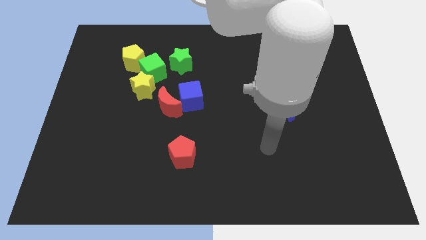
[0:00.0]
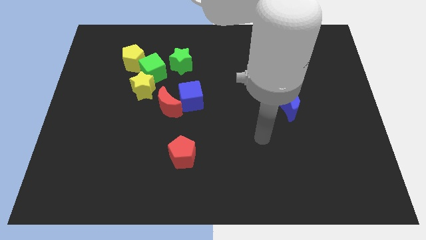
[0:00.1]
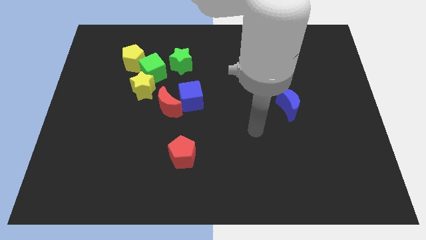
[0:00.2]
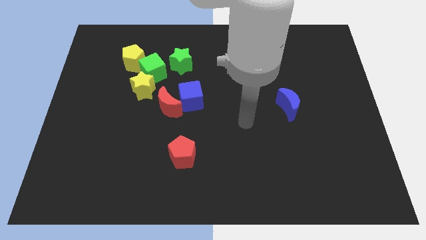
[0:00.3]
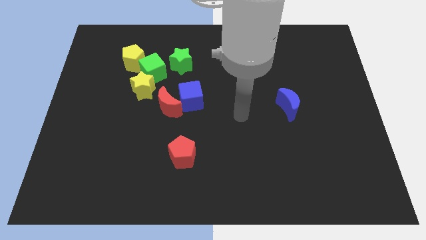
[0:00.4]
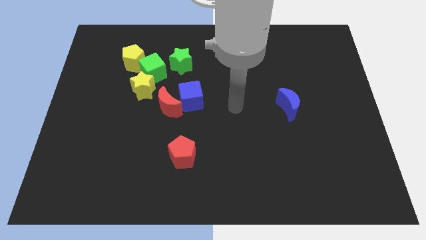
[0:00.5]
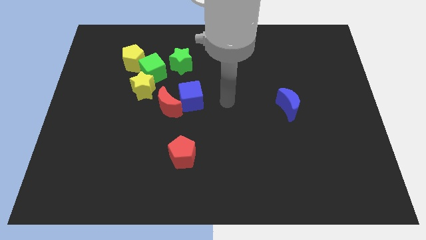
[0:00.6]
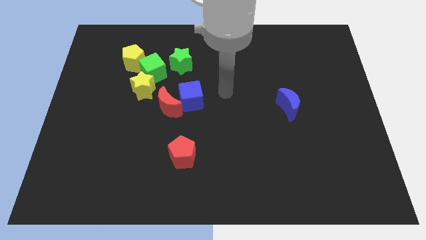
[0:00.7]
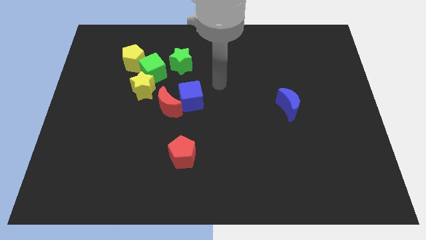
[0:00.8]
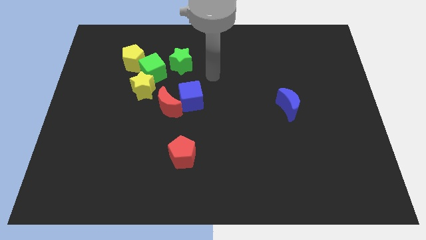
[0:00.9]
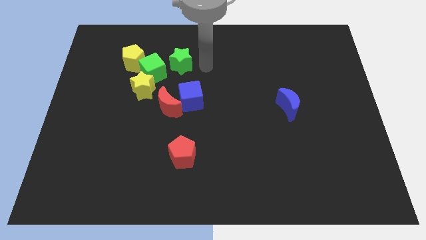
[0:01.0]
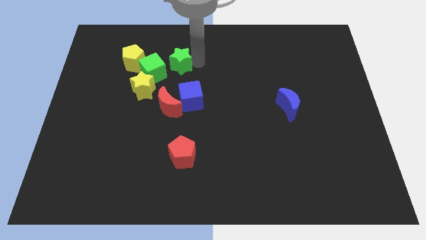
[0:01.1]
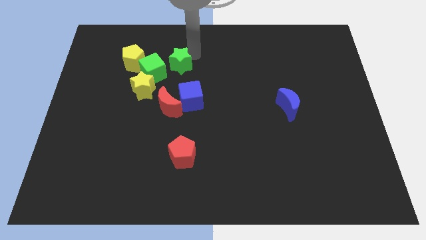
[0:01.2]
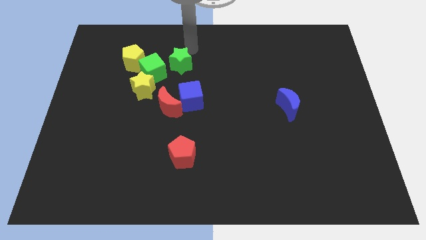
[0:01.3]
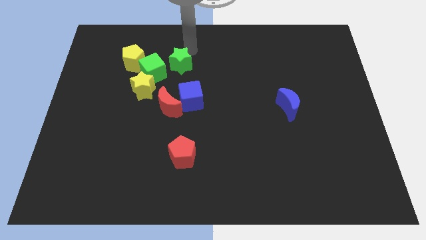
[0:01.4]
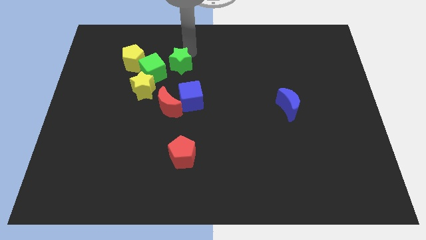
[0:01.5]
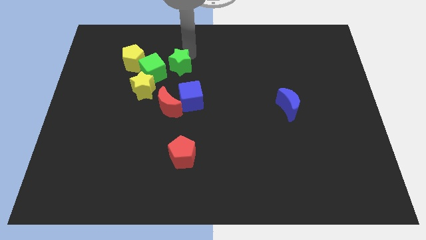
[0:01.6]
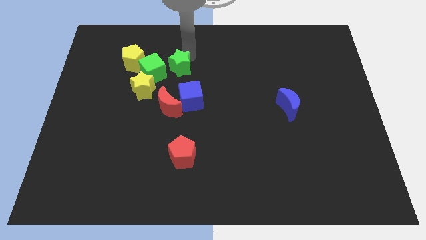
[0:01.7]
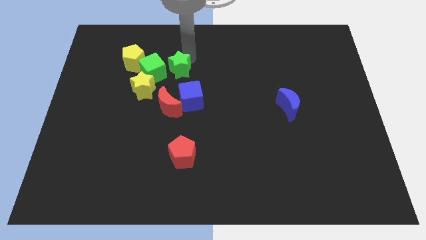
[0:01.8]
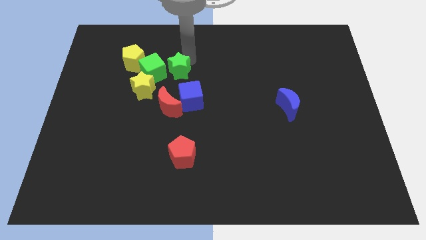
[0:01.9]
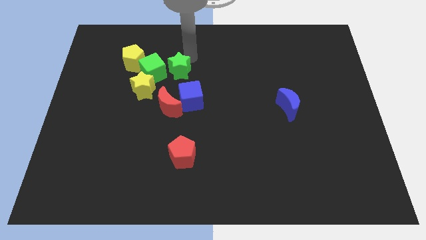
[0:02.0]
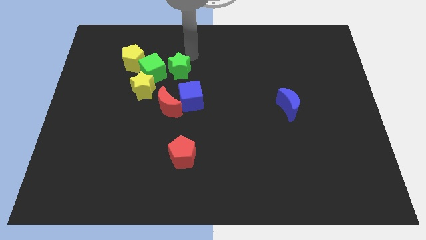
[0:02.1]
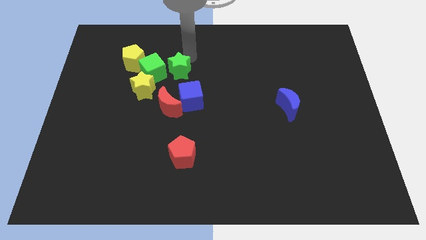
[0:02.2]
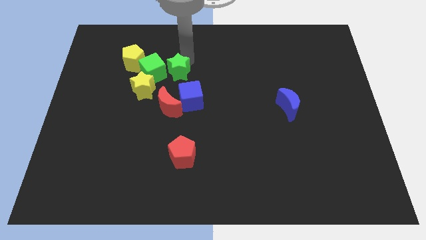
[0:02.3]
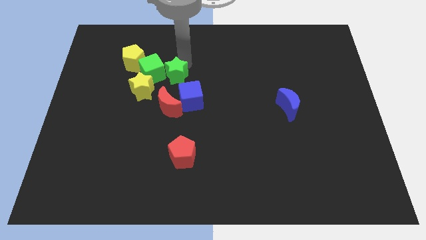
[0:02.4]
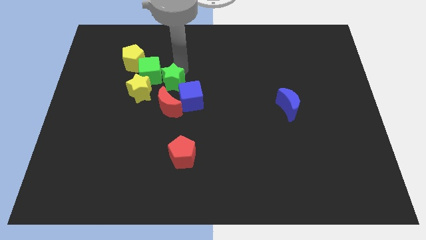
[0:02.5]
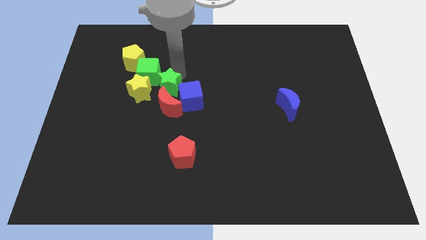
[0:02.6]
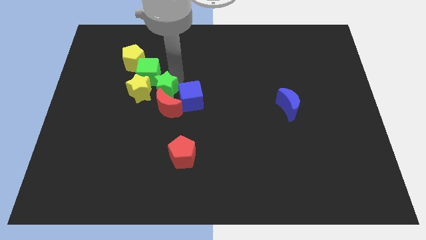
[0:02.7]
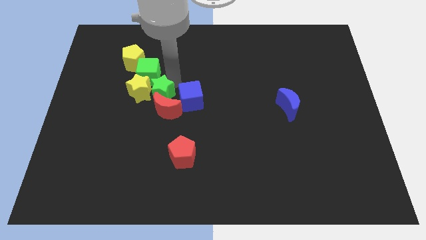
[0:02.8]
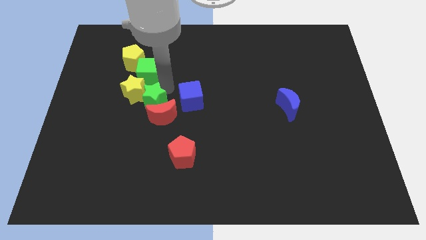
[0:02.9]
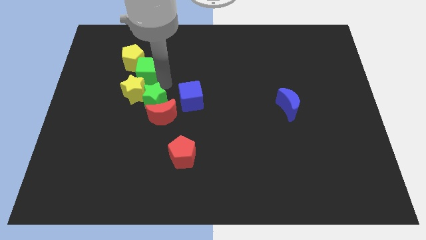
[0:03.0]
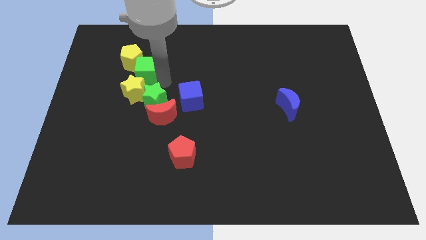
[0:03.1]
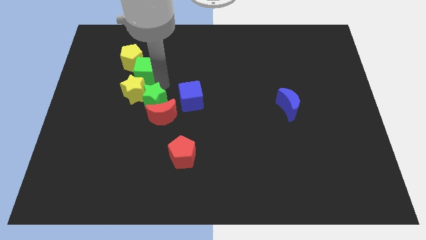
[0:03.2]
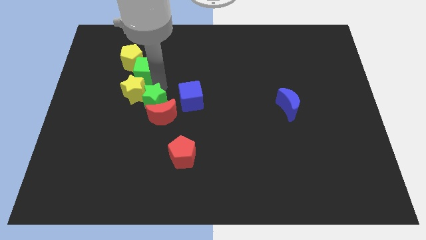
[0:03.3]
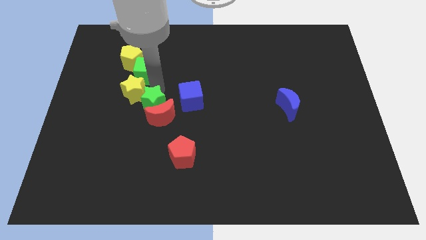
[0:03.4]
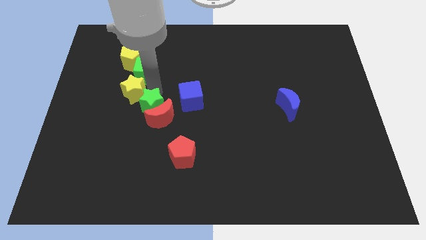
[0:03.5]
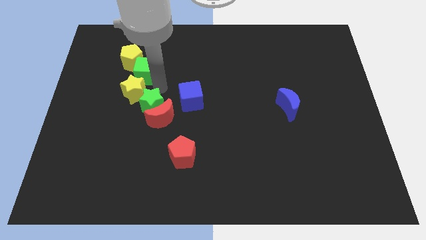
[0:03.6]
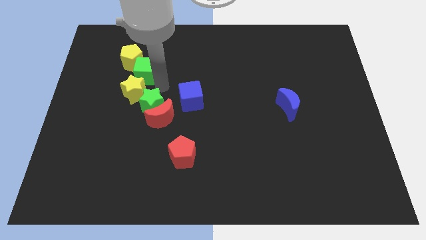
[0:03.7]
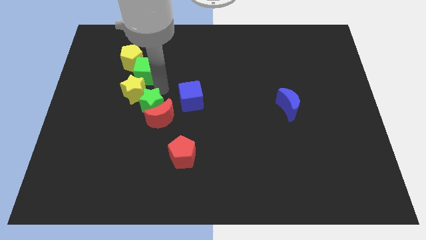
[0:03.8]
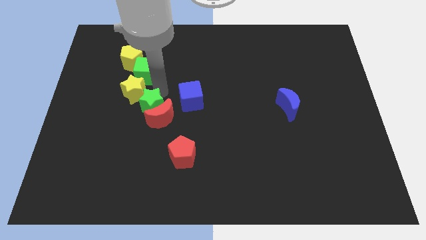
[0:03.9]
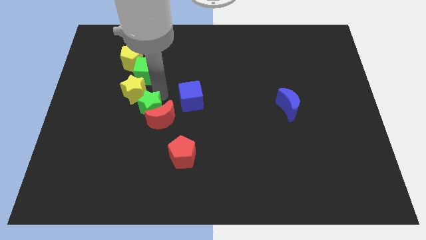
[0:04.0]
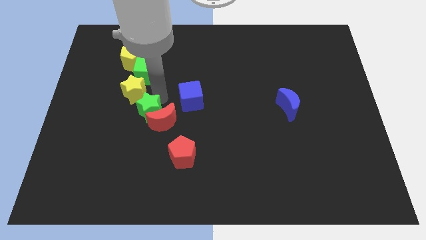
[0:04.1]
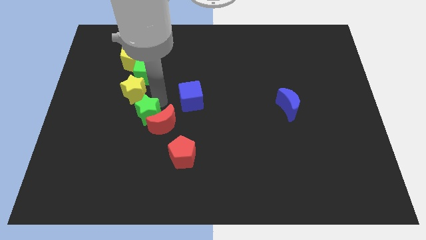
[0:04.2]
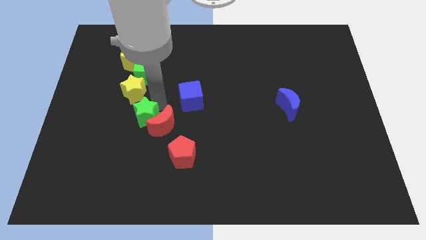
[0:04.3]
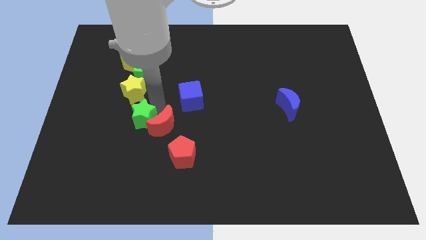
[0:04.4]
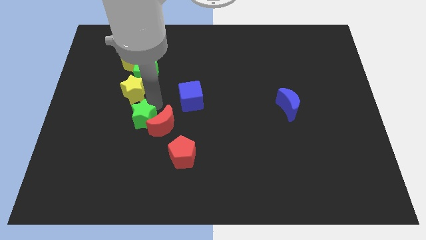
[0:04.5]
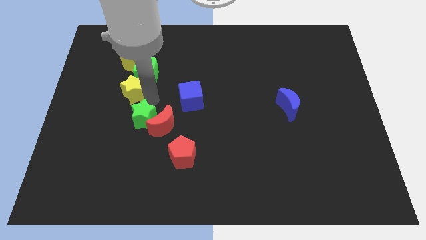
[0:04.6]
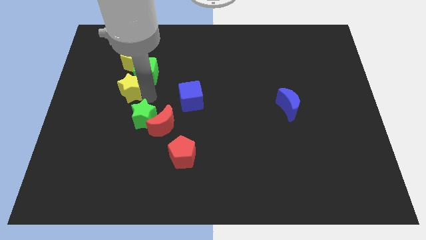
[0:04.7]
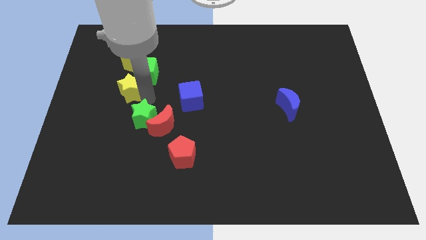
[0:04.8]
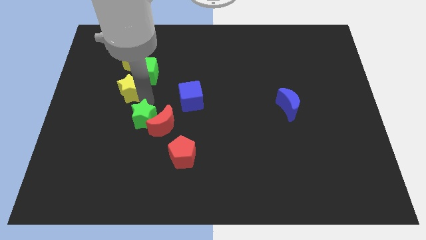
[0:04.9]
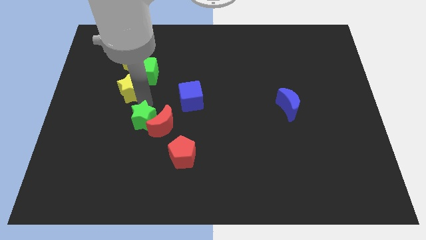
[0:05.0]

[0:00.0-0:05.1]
push the green star diagonally down and to the left of the red moon

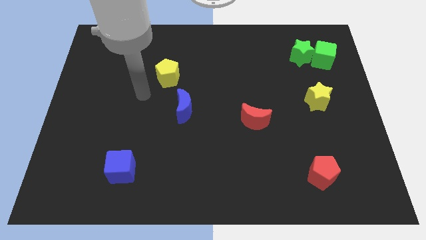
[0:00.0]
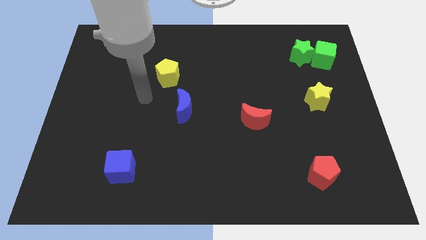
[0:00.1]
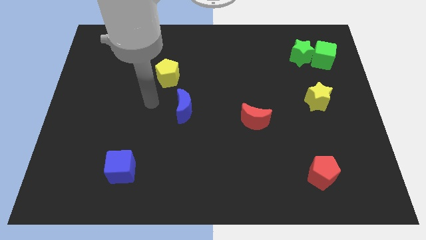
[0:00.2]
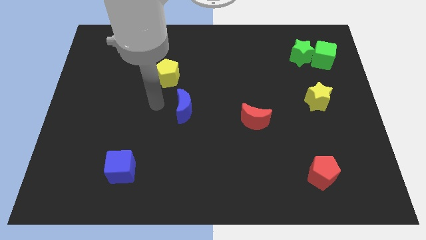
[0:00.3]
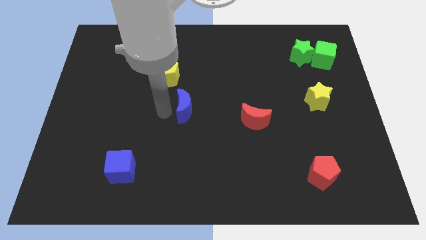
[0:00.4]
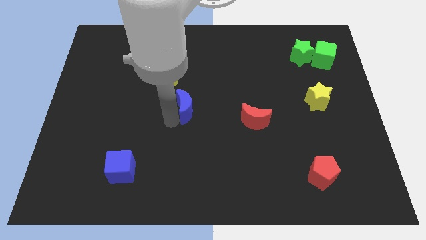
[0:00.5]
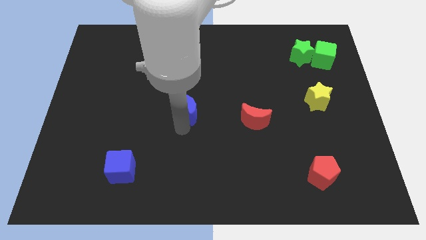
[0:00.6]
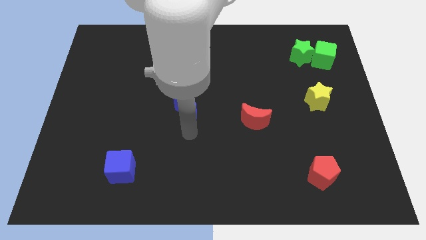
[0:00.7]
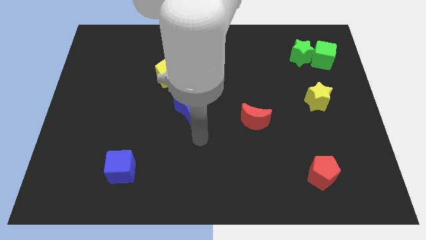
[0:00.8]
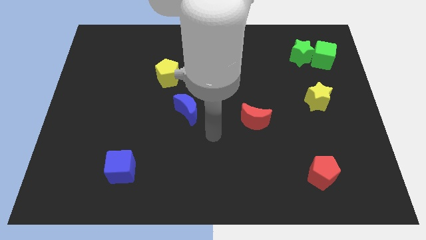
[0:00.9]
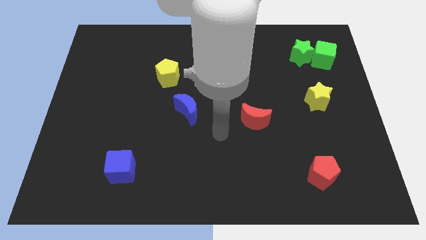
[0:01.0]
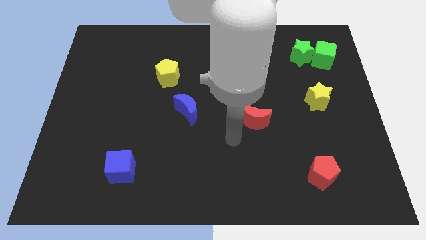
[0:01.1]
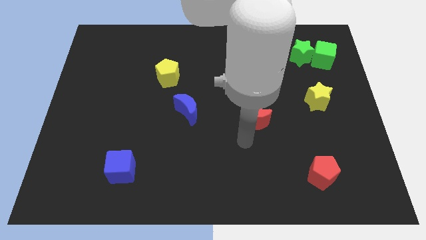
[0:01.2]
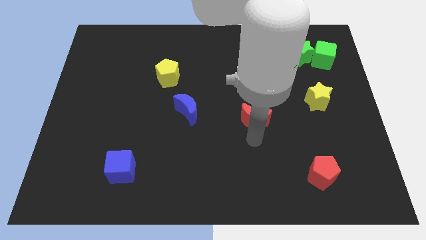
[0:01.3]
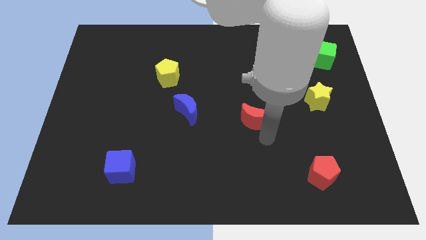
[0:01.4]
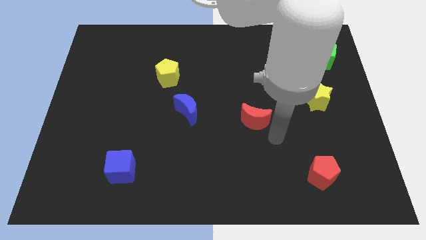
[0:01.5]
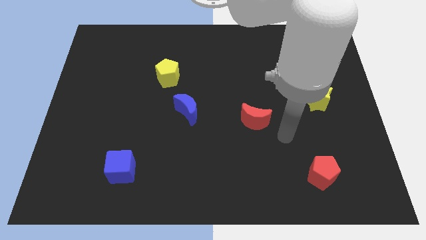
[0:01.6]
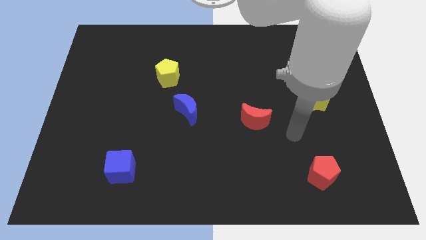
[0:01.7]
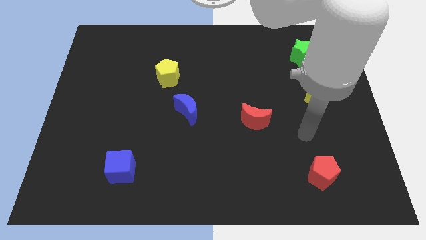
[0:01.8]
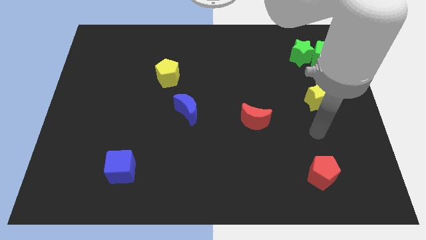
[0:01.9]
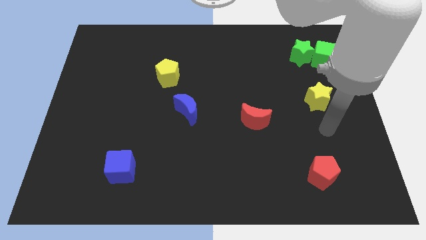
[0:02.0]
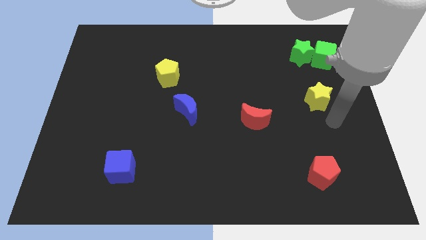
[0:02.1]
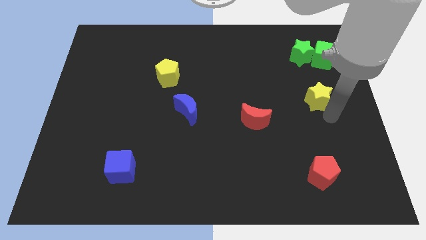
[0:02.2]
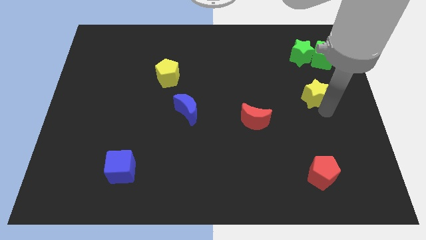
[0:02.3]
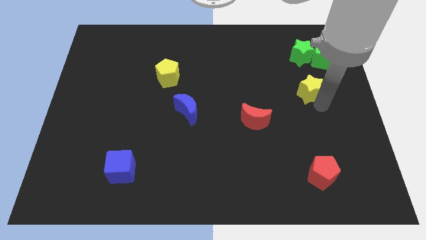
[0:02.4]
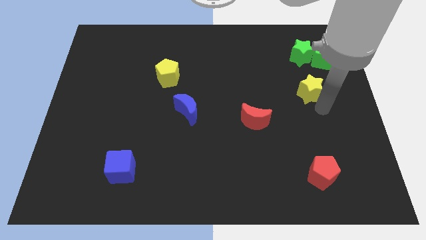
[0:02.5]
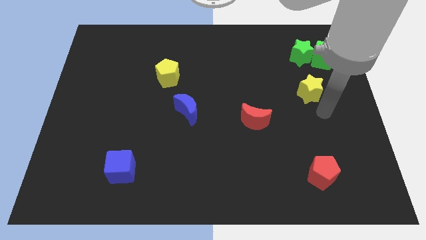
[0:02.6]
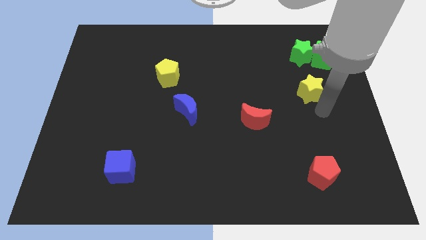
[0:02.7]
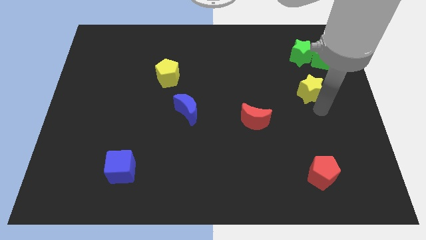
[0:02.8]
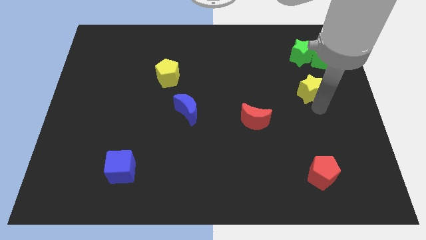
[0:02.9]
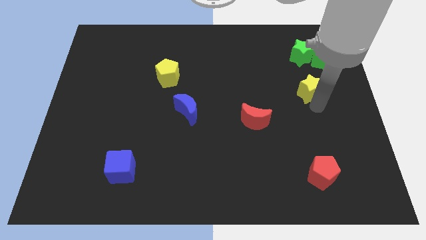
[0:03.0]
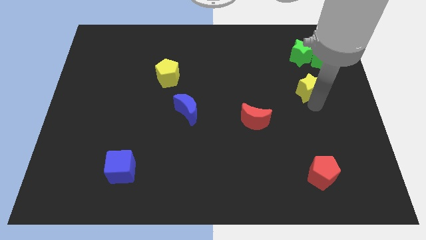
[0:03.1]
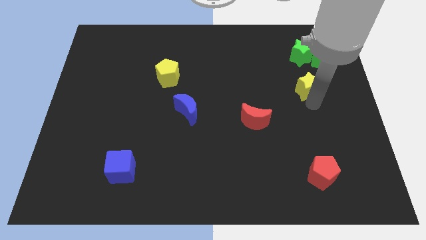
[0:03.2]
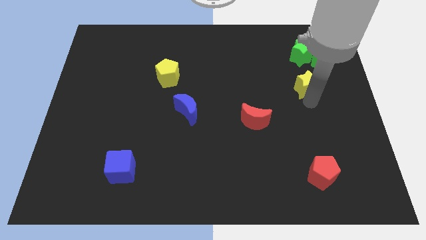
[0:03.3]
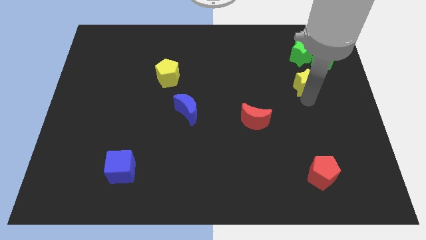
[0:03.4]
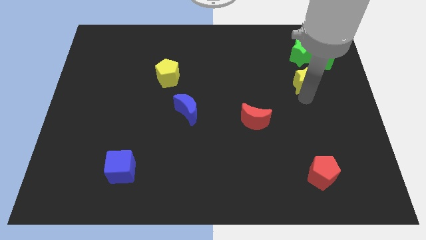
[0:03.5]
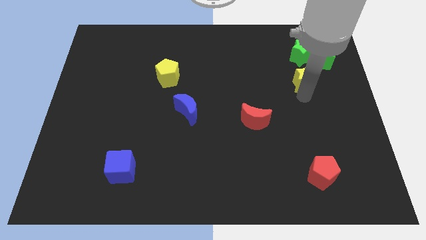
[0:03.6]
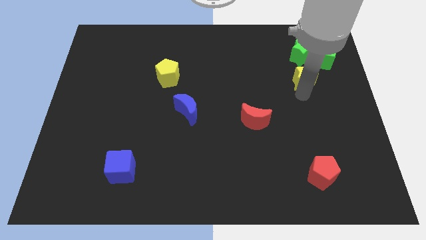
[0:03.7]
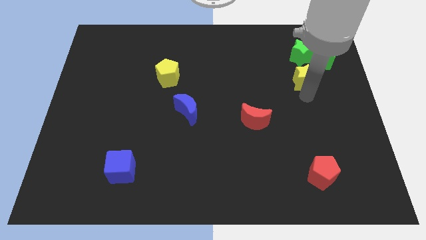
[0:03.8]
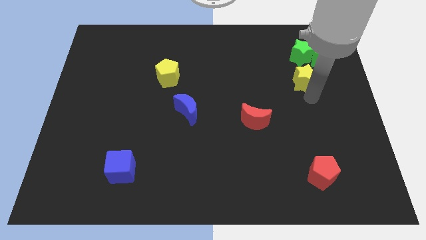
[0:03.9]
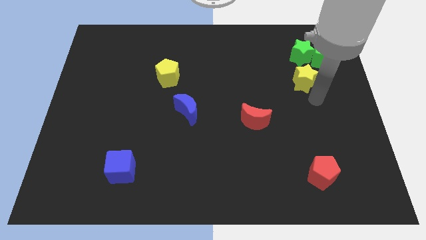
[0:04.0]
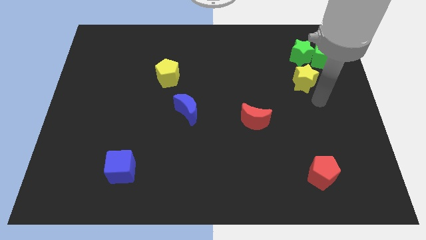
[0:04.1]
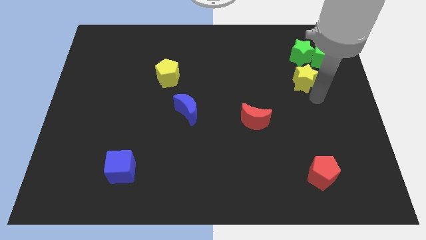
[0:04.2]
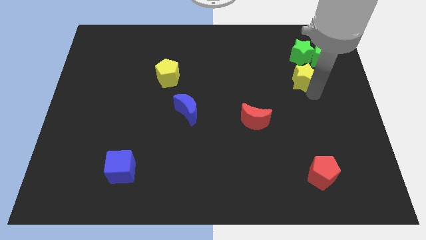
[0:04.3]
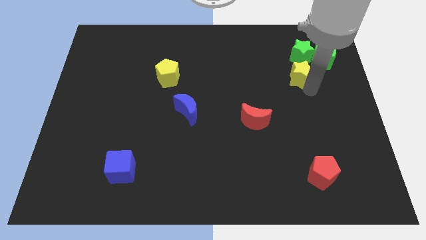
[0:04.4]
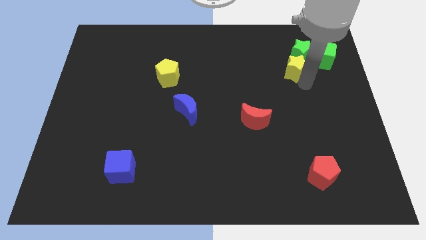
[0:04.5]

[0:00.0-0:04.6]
move the yellow star to the left of the green cube
